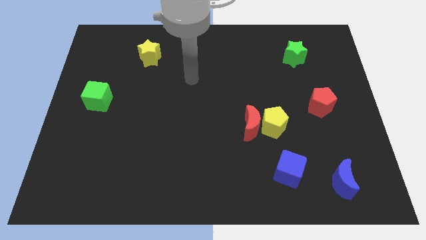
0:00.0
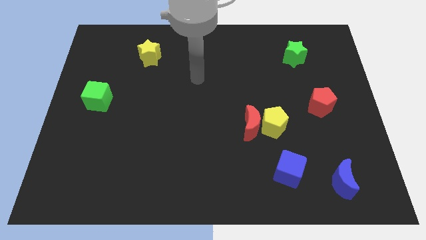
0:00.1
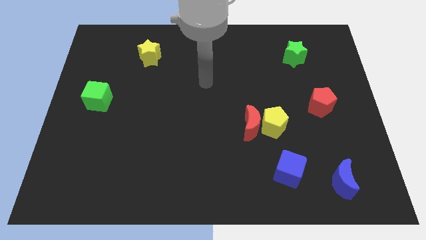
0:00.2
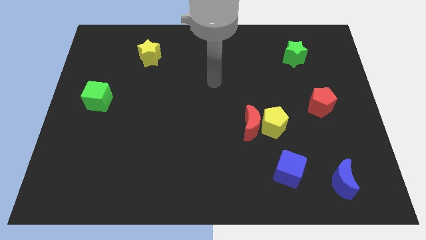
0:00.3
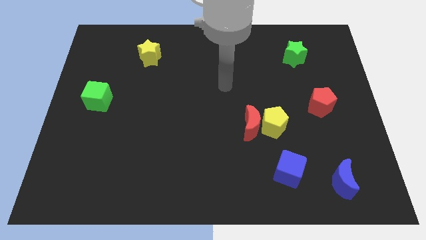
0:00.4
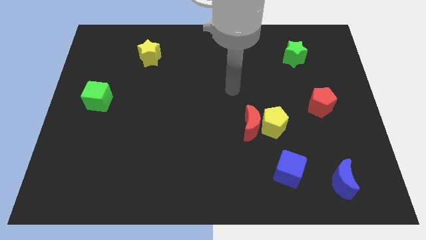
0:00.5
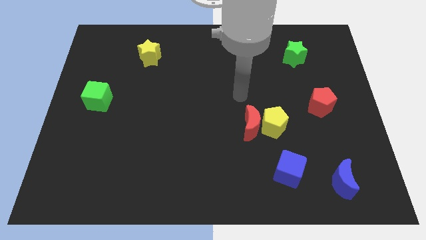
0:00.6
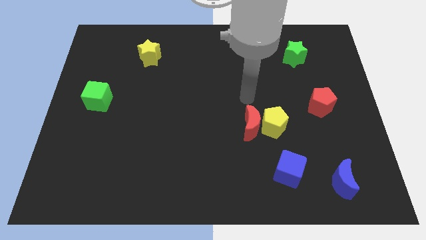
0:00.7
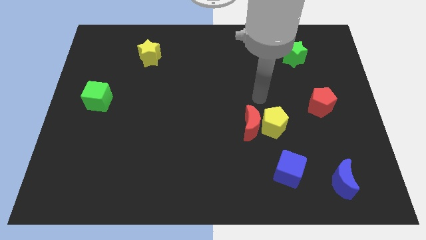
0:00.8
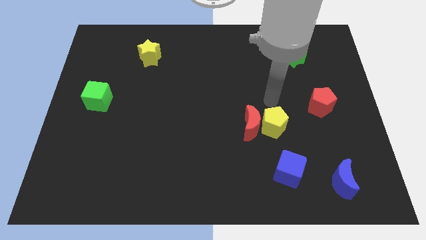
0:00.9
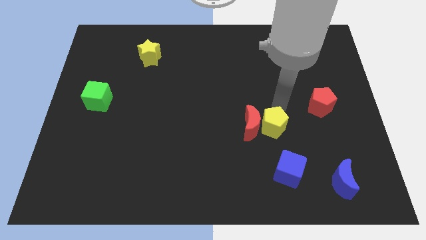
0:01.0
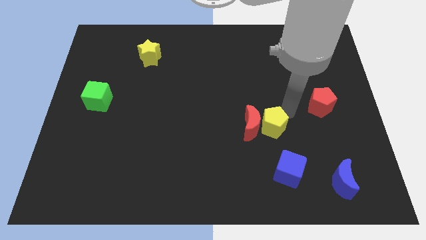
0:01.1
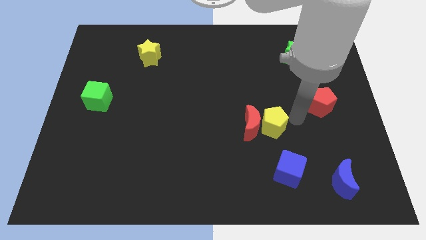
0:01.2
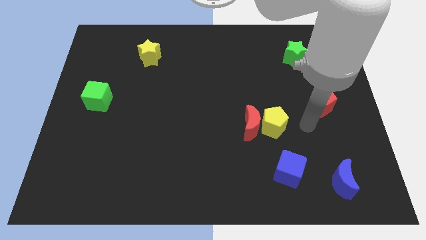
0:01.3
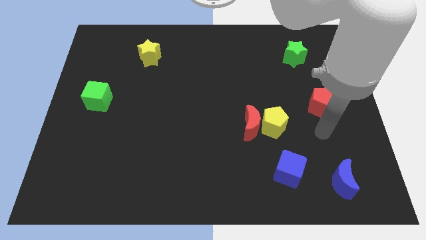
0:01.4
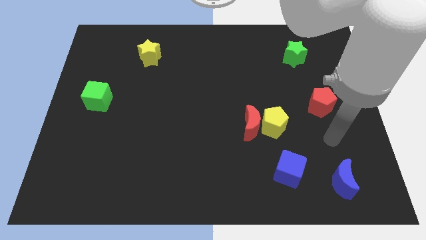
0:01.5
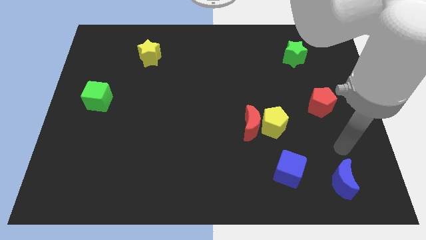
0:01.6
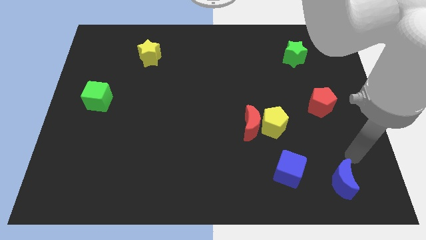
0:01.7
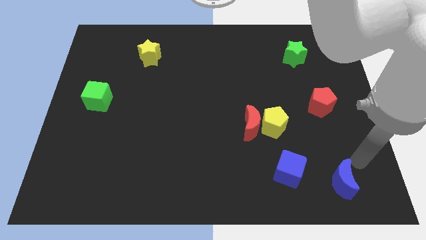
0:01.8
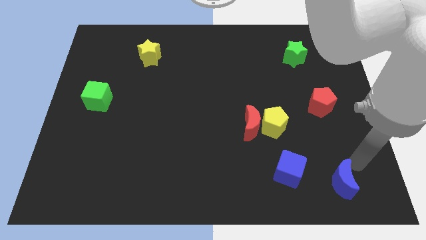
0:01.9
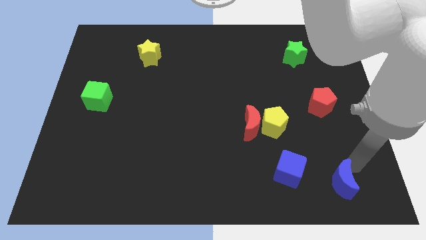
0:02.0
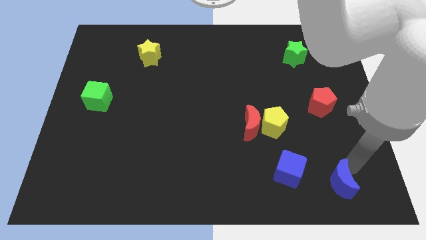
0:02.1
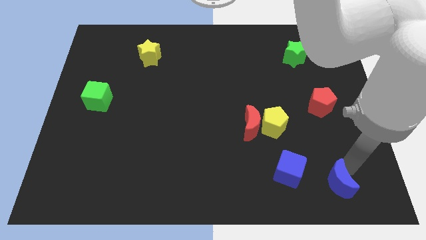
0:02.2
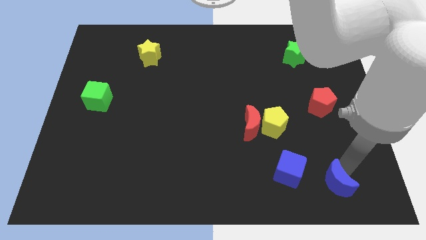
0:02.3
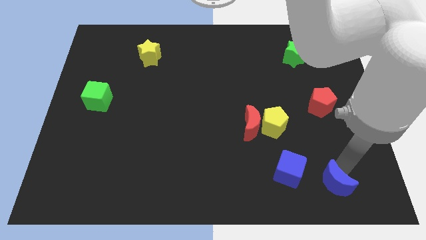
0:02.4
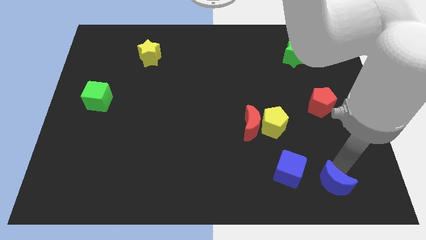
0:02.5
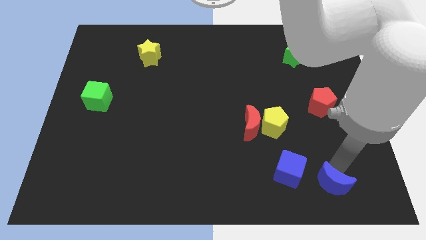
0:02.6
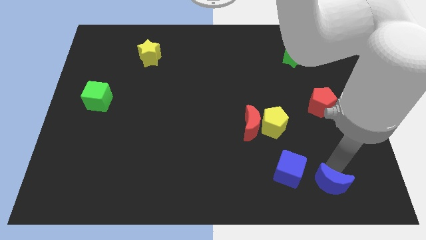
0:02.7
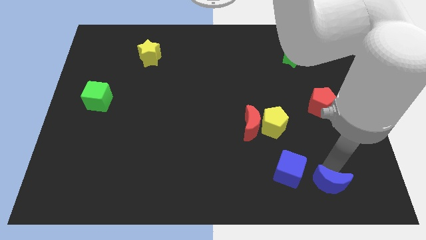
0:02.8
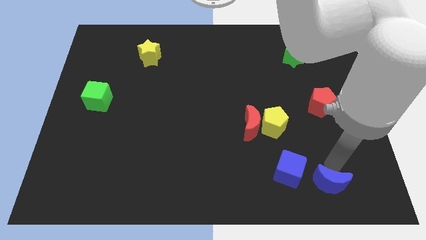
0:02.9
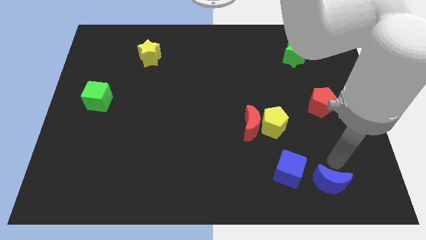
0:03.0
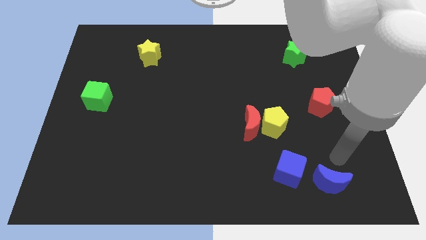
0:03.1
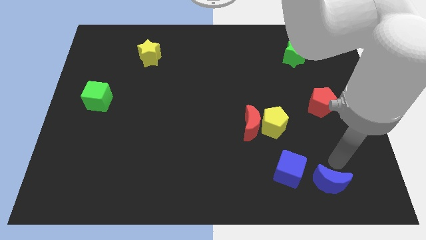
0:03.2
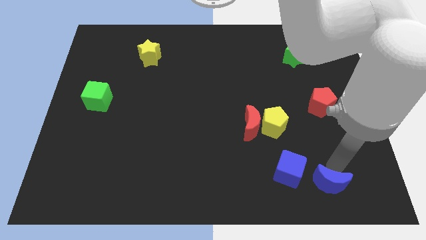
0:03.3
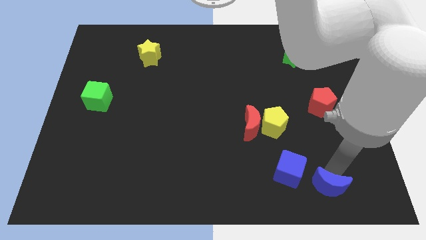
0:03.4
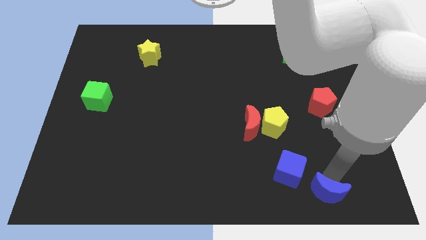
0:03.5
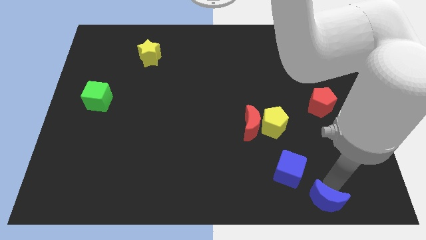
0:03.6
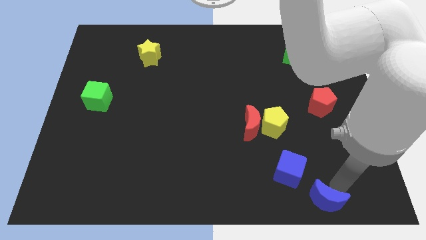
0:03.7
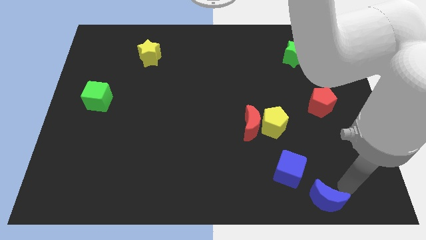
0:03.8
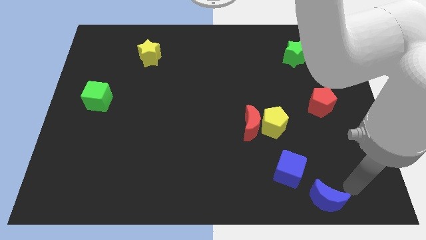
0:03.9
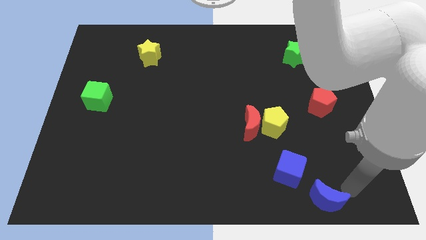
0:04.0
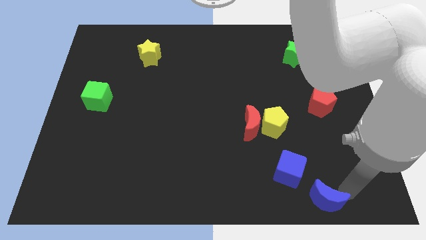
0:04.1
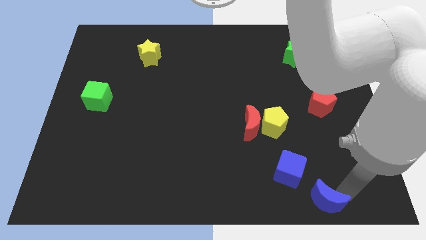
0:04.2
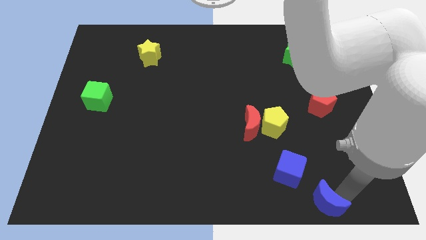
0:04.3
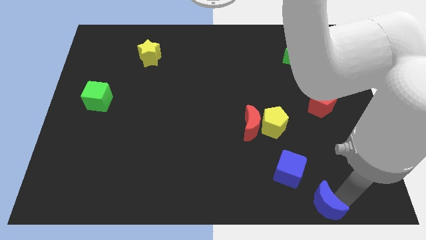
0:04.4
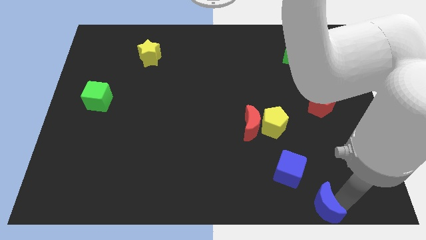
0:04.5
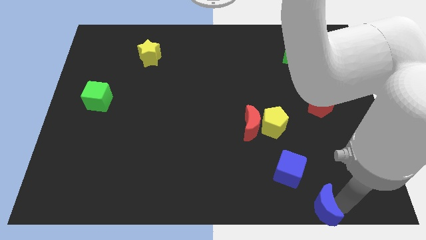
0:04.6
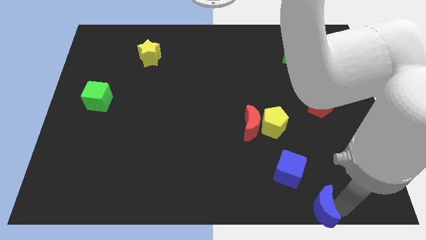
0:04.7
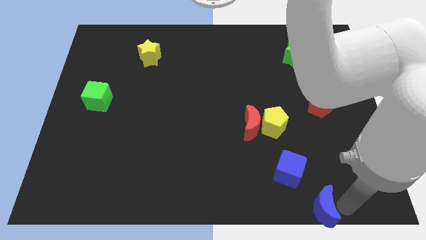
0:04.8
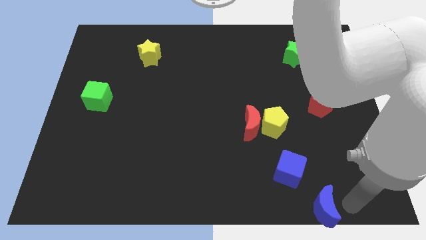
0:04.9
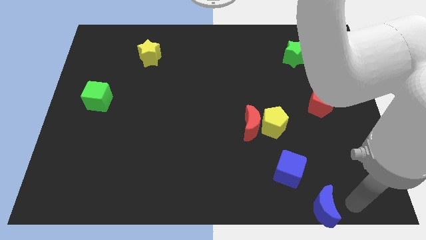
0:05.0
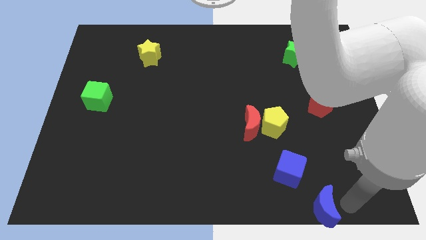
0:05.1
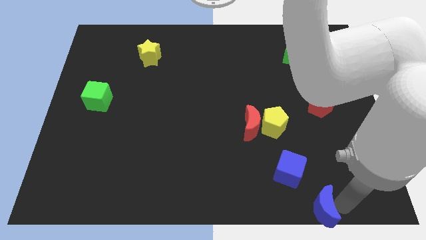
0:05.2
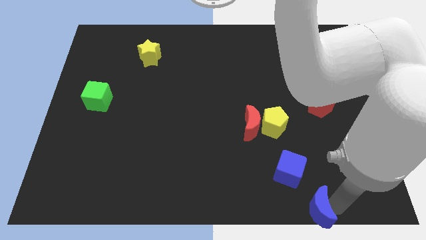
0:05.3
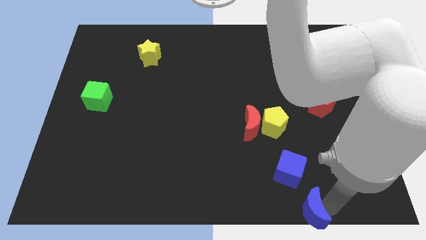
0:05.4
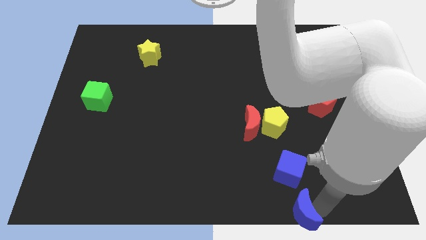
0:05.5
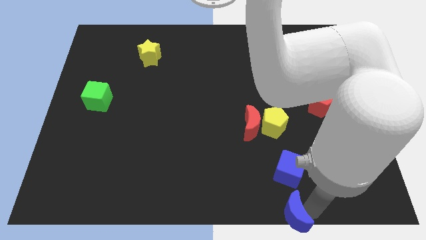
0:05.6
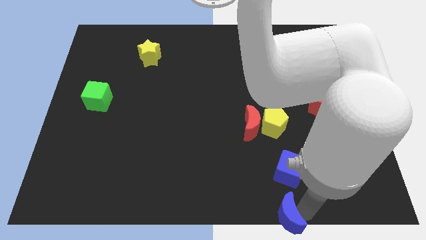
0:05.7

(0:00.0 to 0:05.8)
push the blue moon to the bottom side

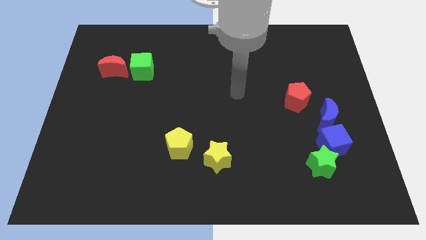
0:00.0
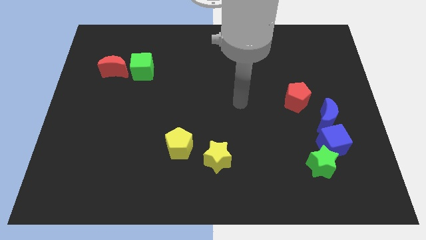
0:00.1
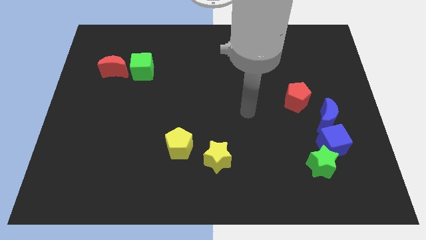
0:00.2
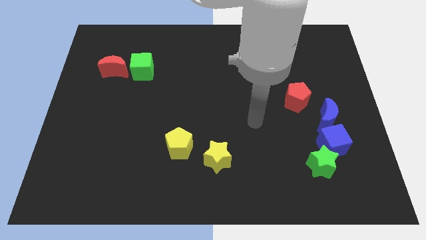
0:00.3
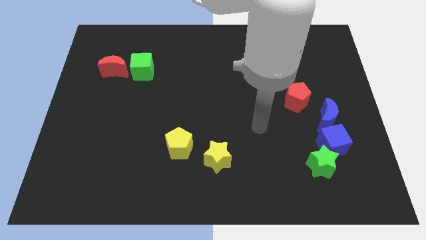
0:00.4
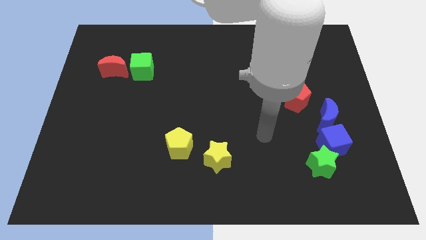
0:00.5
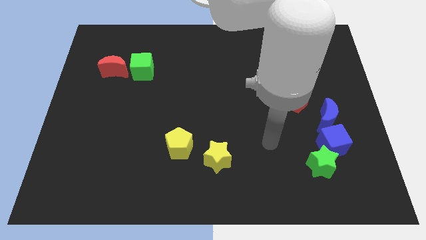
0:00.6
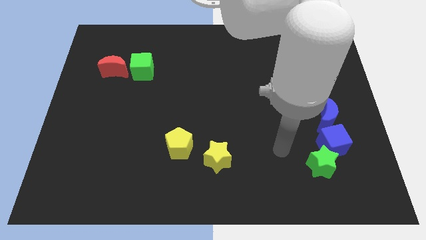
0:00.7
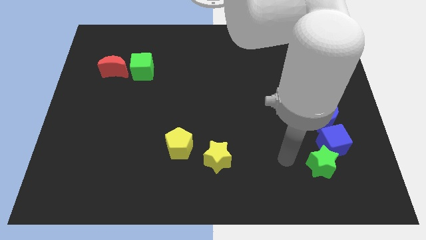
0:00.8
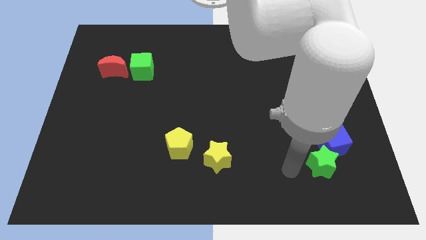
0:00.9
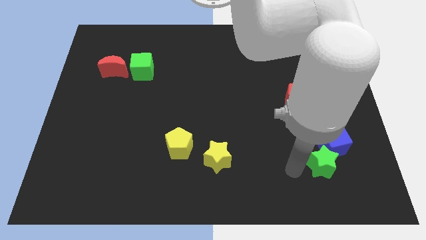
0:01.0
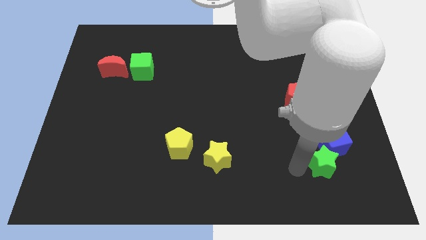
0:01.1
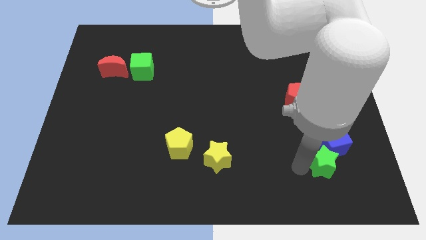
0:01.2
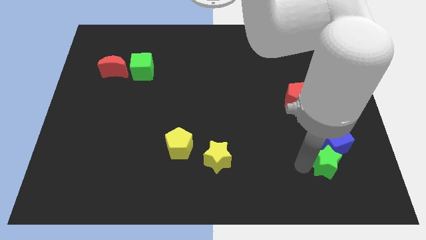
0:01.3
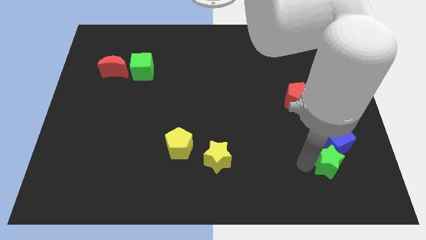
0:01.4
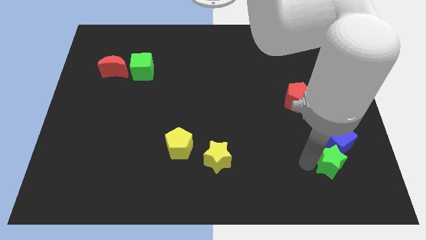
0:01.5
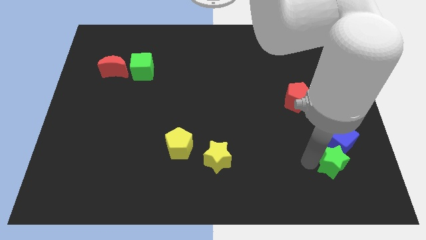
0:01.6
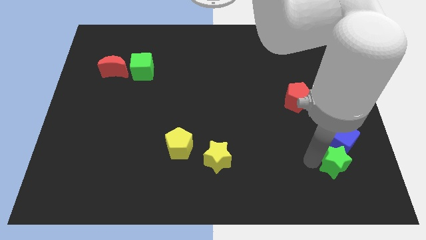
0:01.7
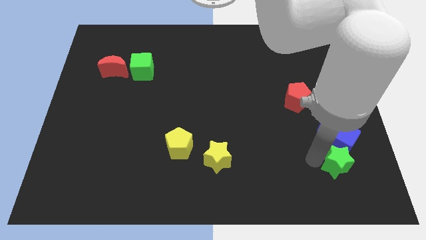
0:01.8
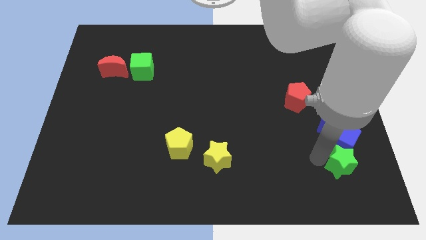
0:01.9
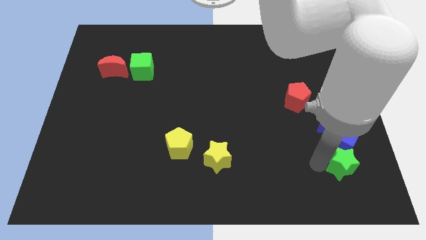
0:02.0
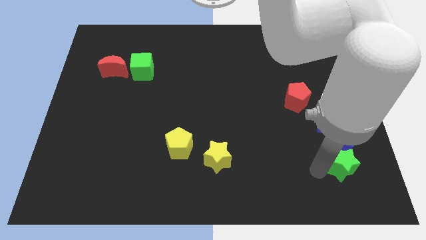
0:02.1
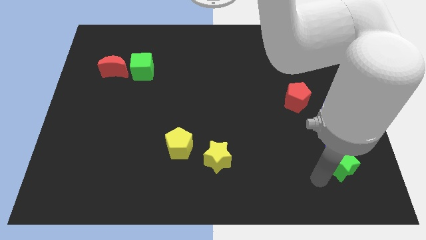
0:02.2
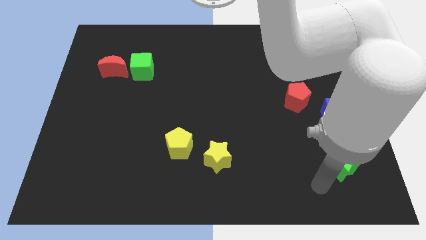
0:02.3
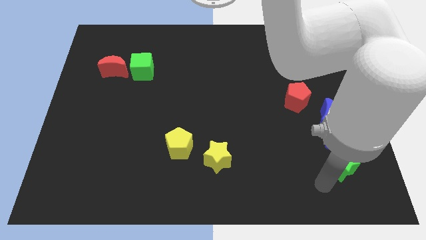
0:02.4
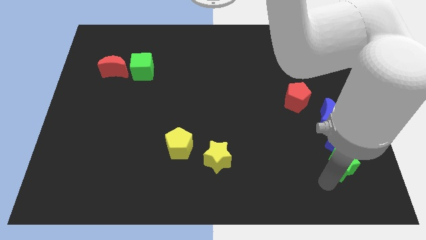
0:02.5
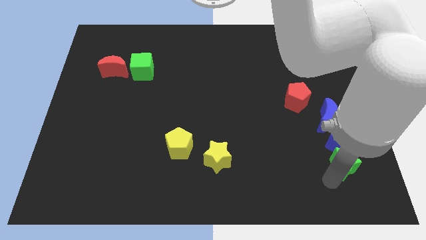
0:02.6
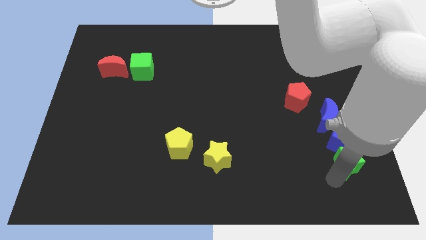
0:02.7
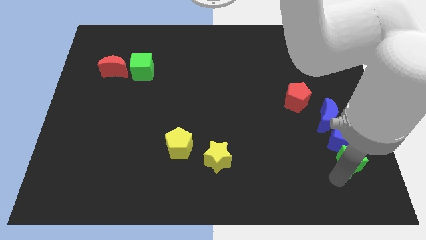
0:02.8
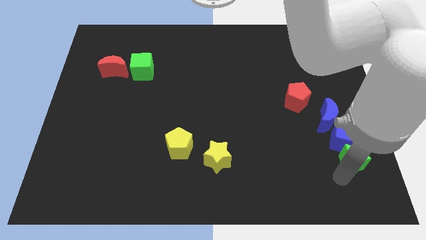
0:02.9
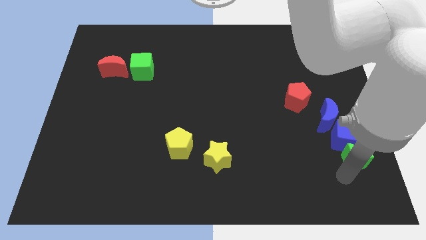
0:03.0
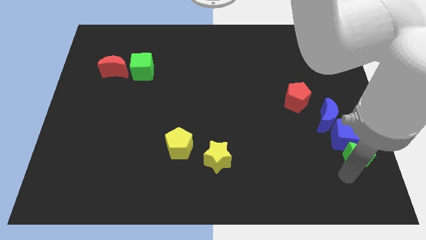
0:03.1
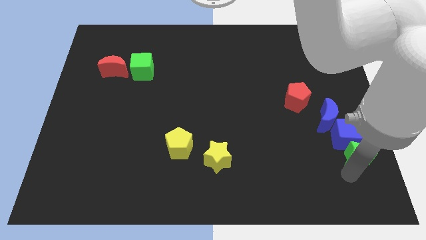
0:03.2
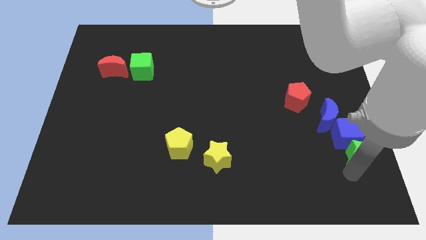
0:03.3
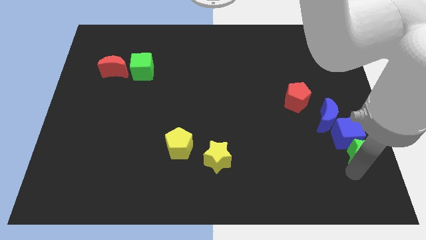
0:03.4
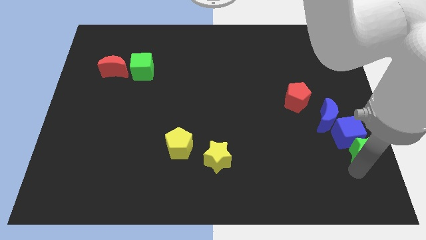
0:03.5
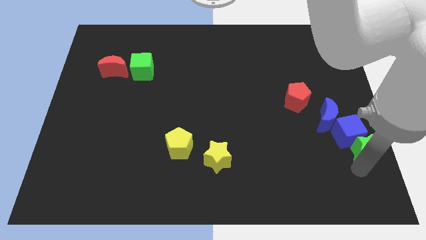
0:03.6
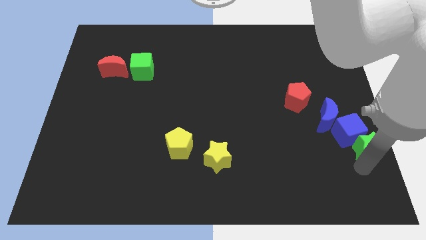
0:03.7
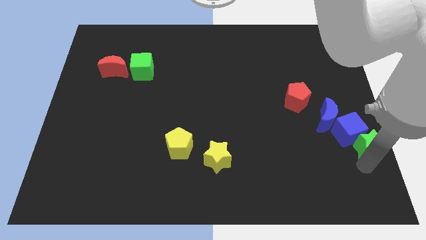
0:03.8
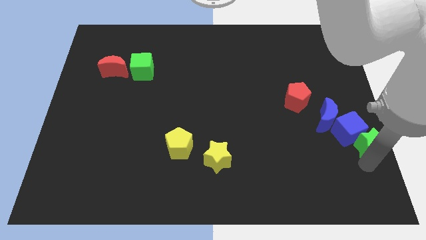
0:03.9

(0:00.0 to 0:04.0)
move the green star to the right side
